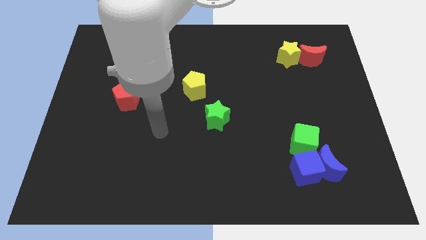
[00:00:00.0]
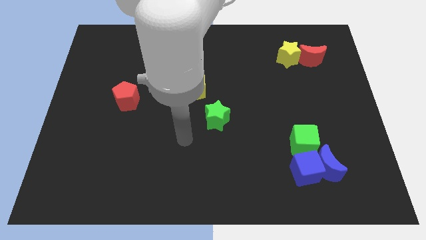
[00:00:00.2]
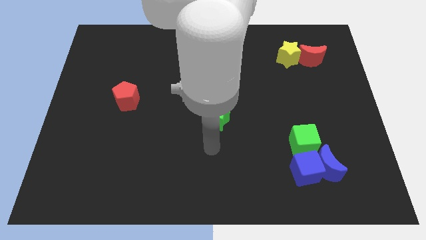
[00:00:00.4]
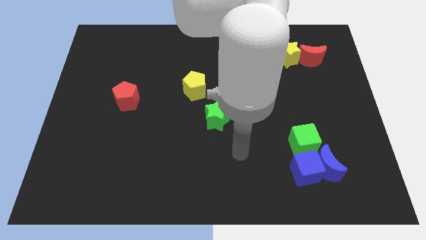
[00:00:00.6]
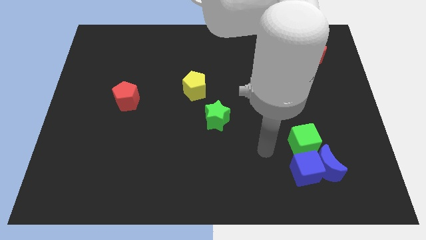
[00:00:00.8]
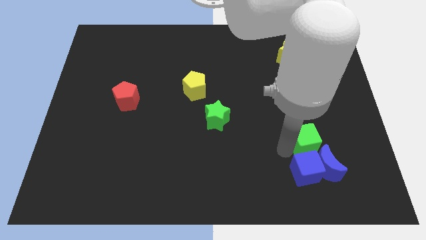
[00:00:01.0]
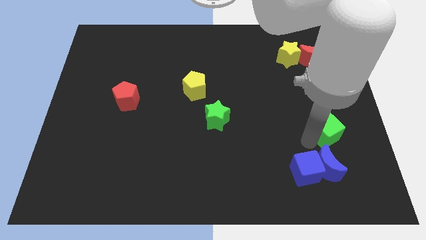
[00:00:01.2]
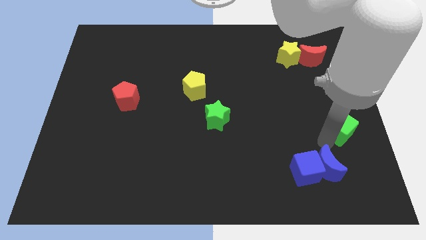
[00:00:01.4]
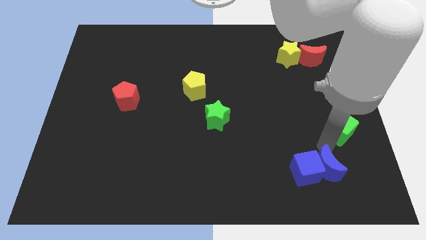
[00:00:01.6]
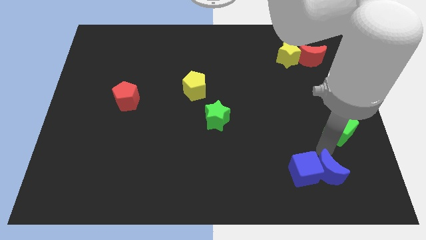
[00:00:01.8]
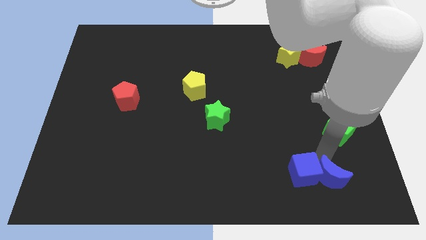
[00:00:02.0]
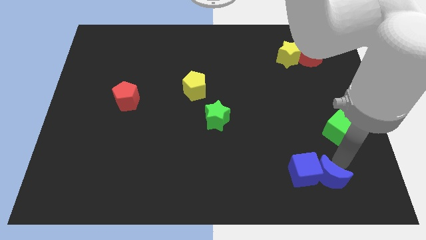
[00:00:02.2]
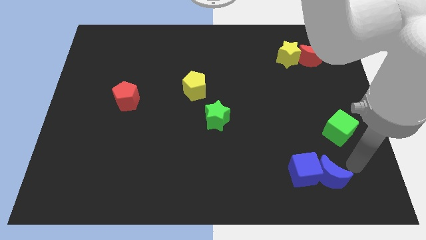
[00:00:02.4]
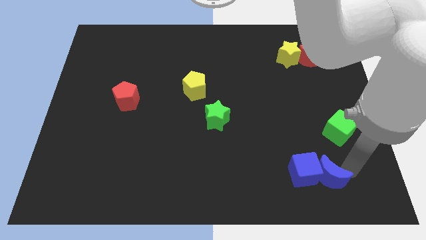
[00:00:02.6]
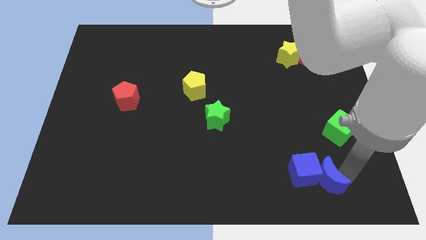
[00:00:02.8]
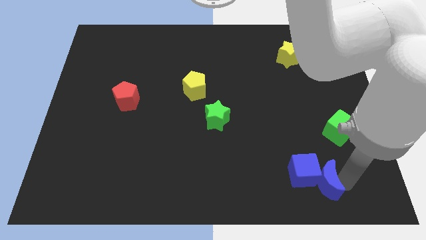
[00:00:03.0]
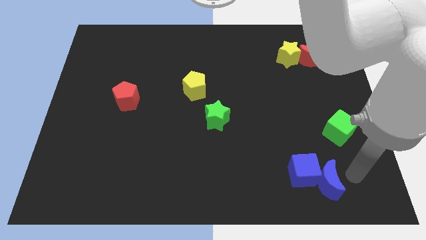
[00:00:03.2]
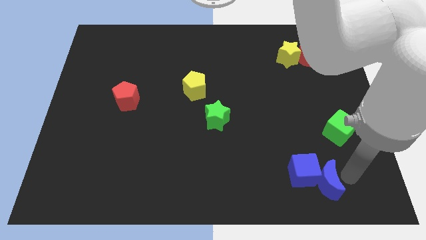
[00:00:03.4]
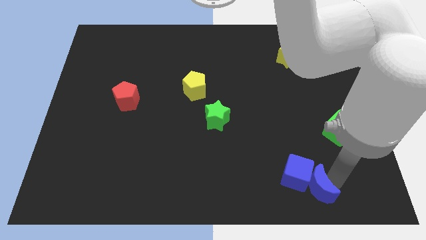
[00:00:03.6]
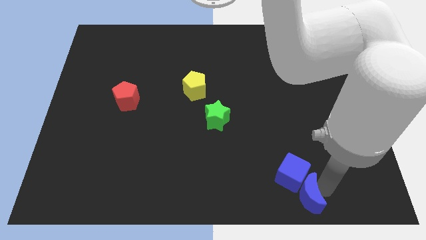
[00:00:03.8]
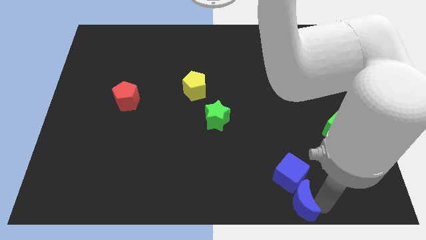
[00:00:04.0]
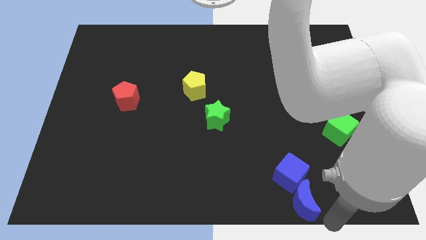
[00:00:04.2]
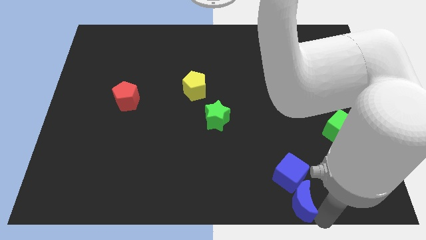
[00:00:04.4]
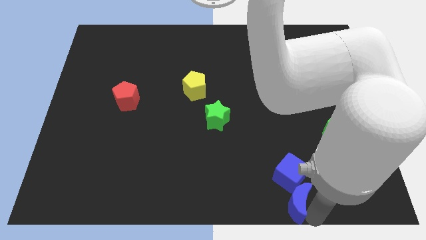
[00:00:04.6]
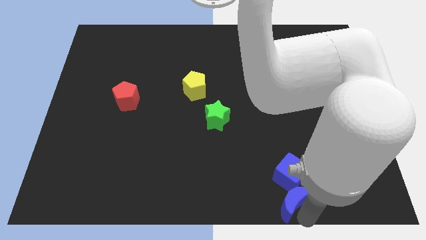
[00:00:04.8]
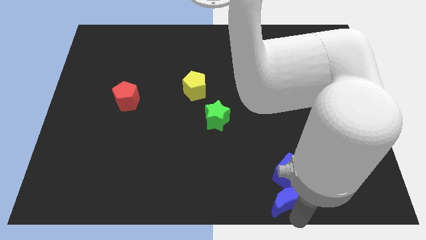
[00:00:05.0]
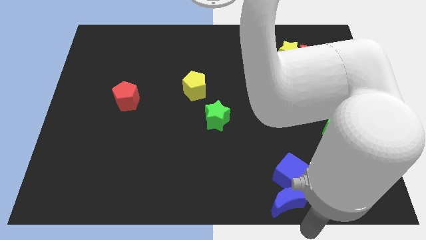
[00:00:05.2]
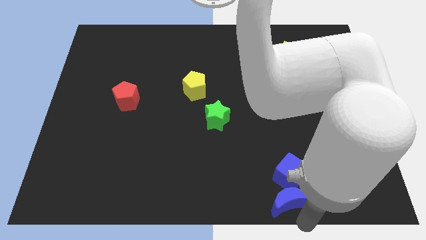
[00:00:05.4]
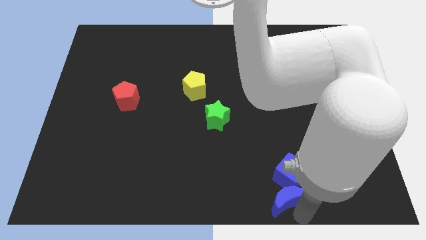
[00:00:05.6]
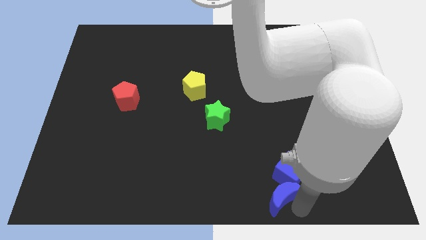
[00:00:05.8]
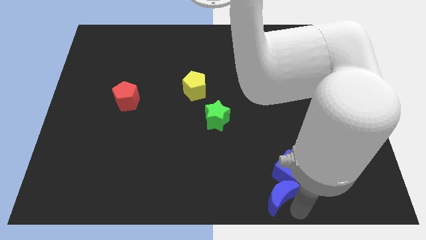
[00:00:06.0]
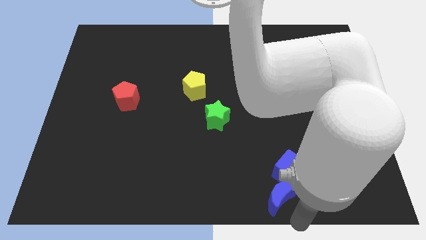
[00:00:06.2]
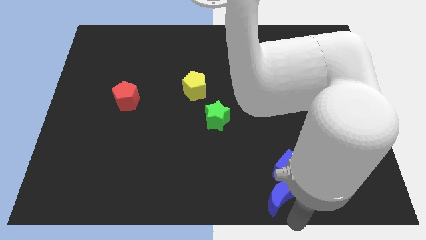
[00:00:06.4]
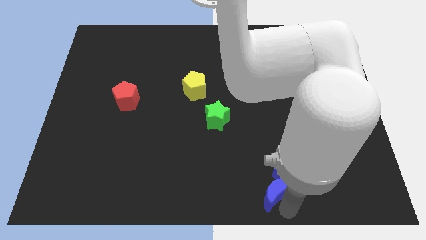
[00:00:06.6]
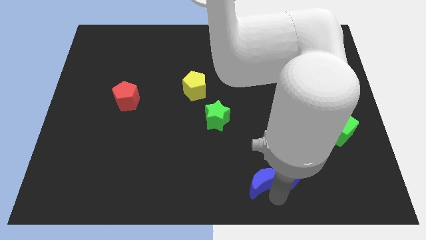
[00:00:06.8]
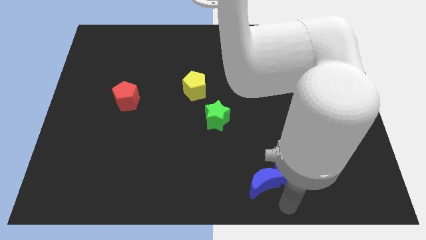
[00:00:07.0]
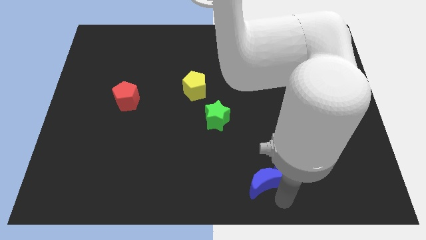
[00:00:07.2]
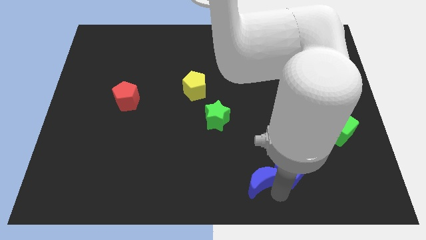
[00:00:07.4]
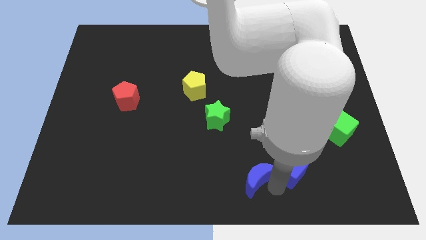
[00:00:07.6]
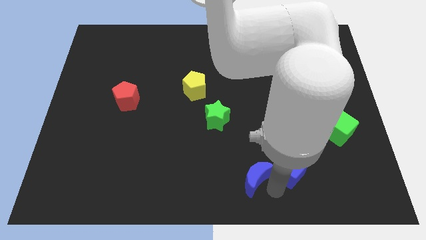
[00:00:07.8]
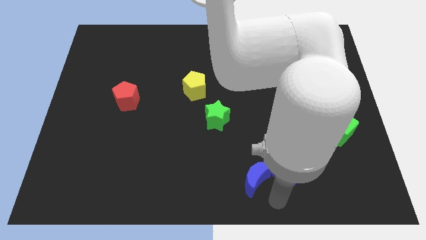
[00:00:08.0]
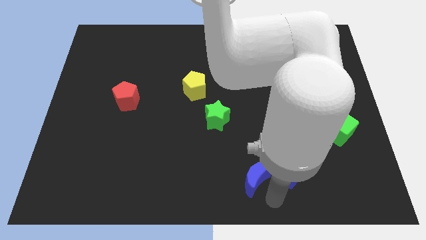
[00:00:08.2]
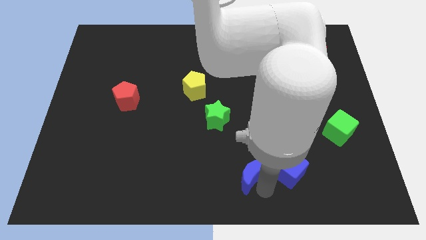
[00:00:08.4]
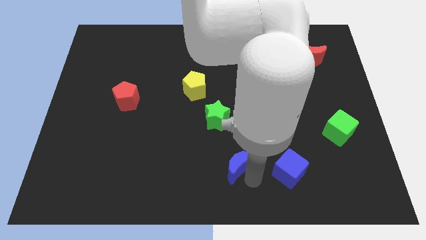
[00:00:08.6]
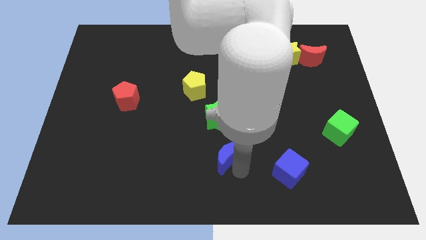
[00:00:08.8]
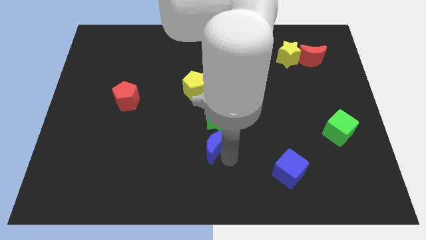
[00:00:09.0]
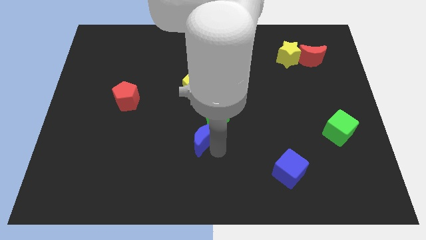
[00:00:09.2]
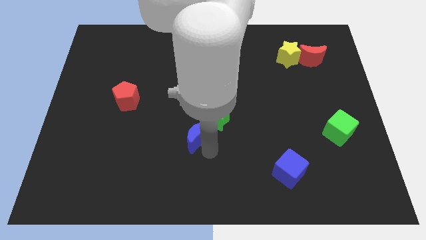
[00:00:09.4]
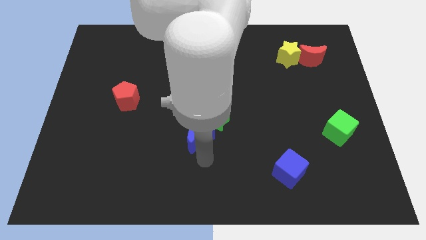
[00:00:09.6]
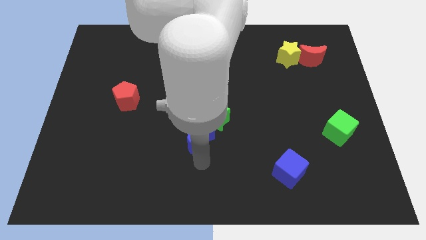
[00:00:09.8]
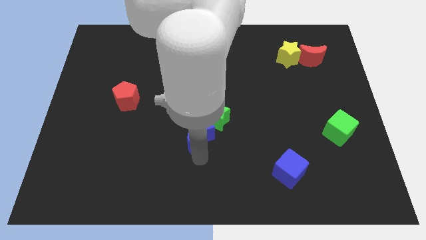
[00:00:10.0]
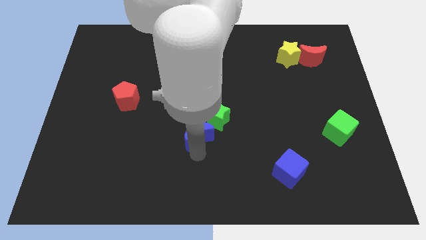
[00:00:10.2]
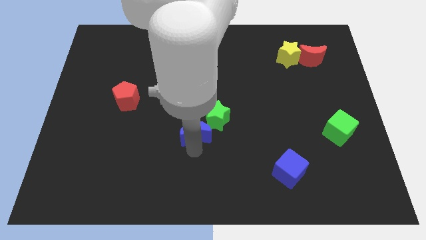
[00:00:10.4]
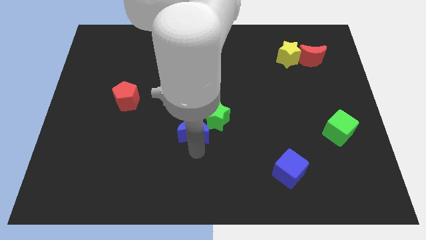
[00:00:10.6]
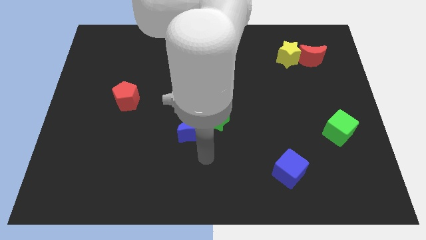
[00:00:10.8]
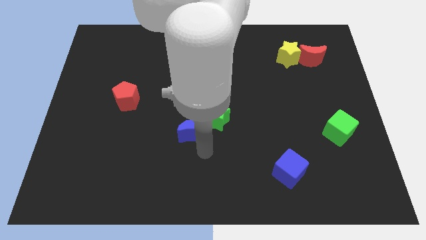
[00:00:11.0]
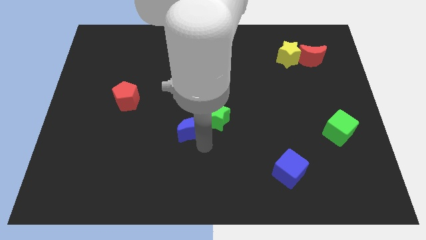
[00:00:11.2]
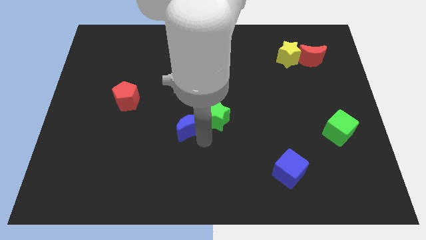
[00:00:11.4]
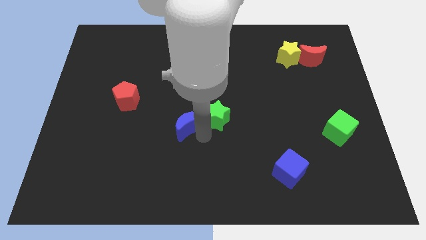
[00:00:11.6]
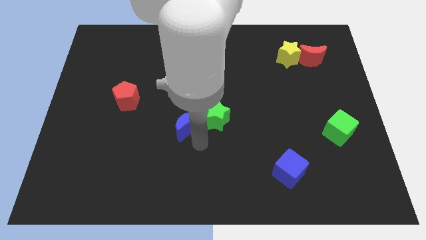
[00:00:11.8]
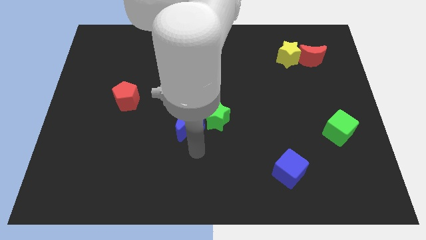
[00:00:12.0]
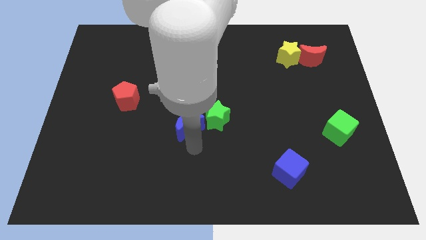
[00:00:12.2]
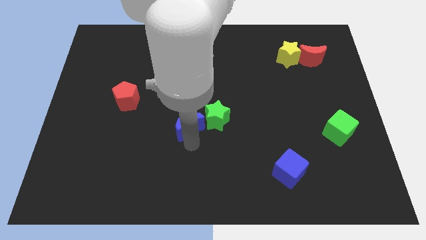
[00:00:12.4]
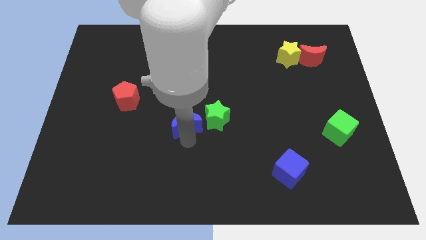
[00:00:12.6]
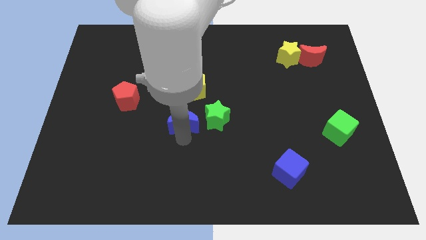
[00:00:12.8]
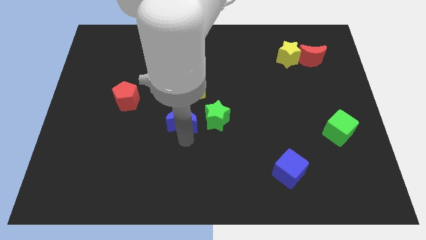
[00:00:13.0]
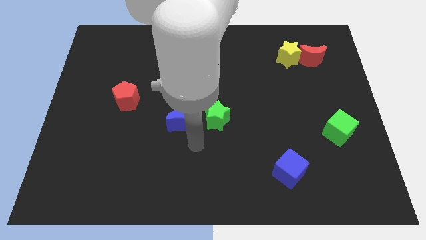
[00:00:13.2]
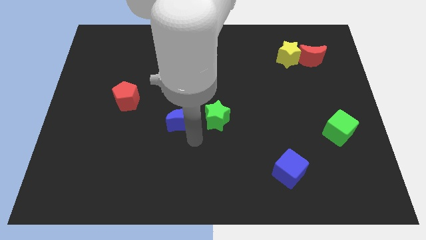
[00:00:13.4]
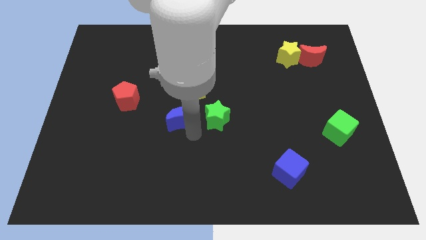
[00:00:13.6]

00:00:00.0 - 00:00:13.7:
push the blue moon to the bottom left of the yellow pentagon

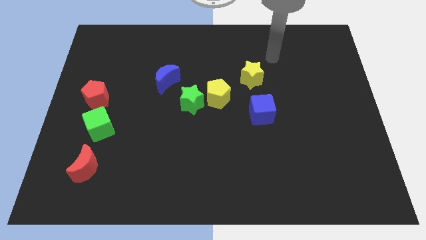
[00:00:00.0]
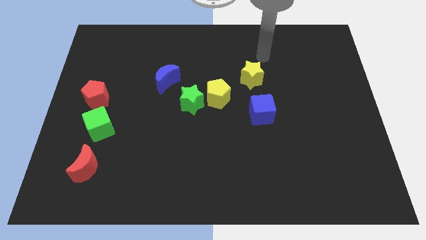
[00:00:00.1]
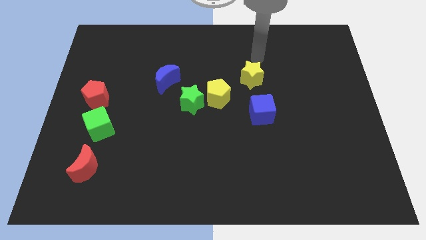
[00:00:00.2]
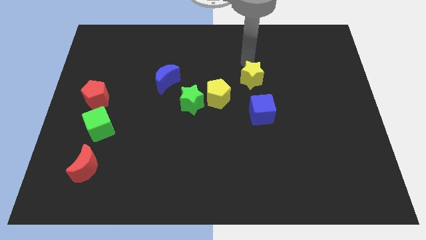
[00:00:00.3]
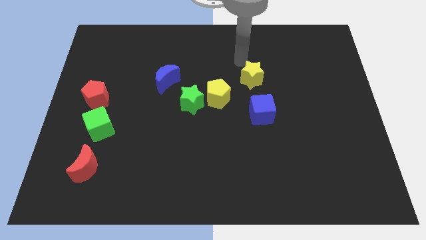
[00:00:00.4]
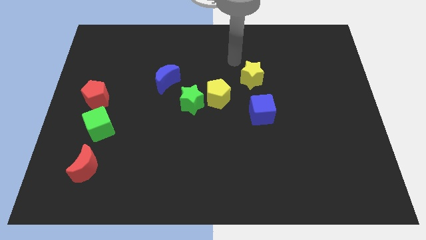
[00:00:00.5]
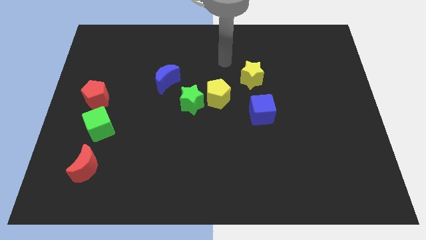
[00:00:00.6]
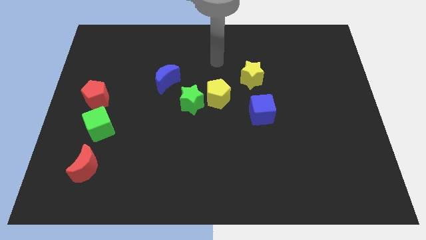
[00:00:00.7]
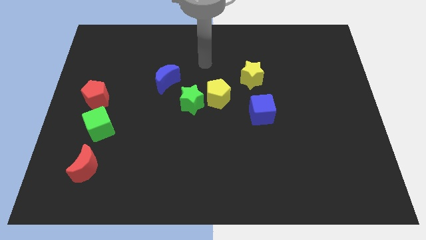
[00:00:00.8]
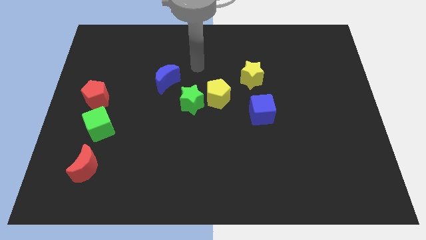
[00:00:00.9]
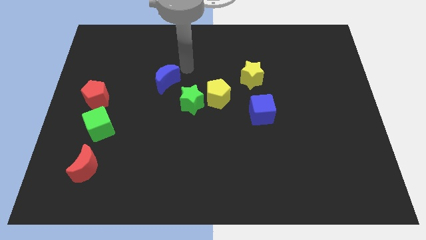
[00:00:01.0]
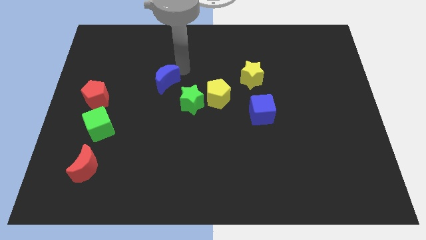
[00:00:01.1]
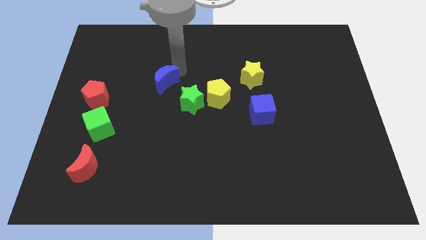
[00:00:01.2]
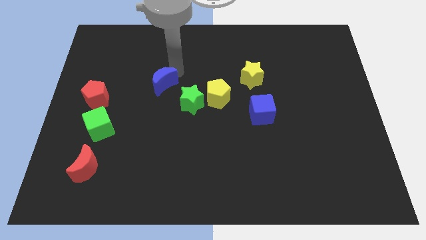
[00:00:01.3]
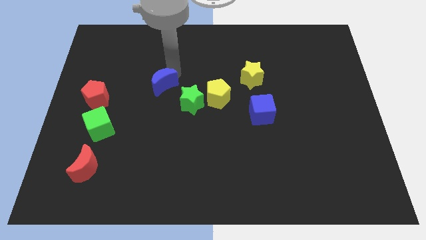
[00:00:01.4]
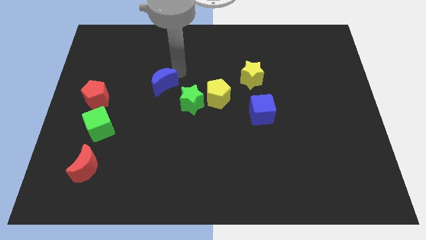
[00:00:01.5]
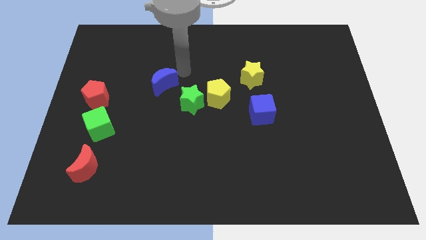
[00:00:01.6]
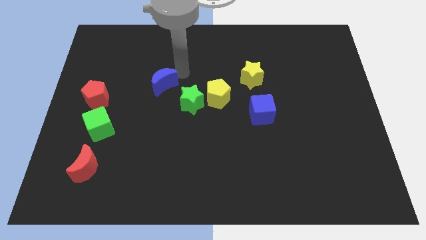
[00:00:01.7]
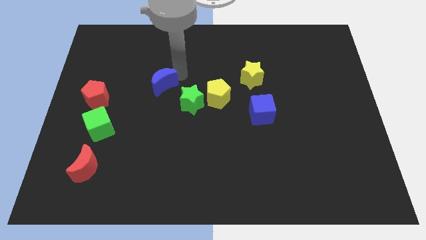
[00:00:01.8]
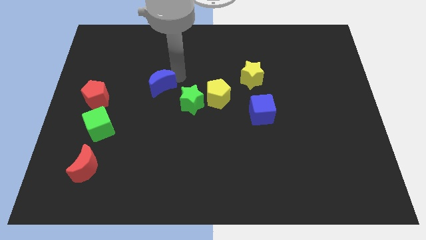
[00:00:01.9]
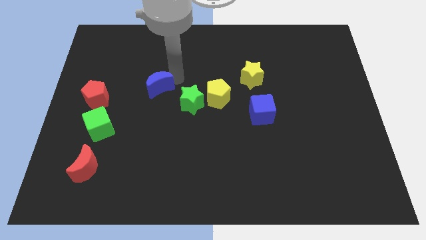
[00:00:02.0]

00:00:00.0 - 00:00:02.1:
move the blue moon just right of the red pentagon
